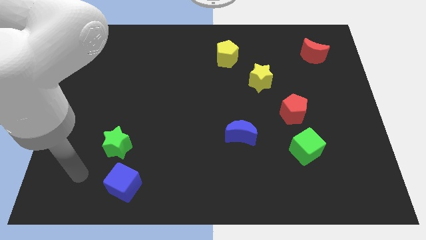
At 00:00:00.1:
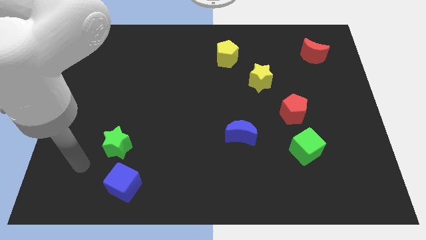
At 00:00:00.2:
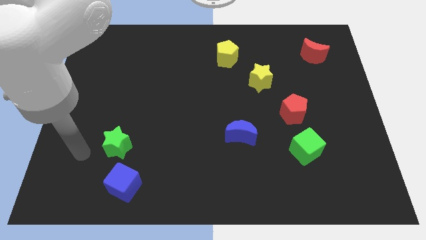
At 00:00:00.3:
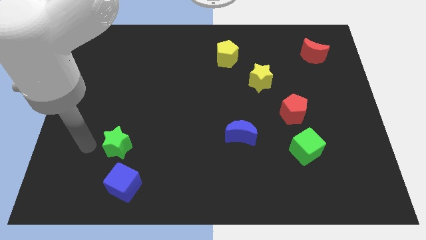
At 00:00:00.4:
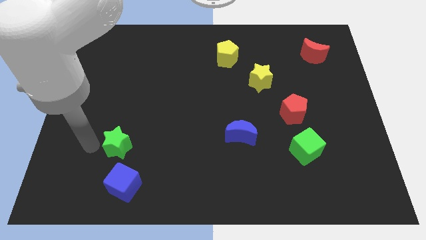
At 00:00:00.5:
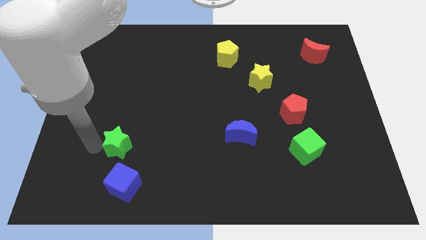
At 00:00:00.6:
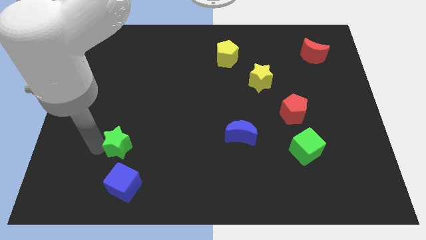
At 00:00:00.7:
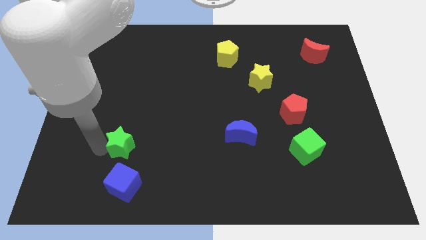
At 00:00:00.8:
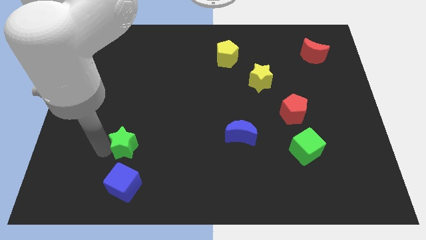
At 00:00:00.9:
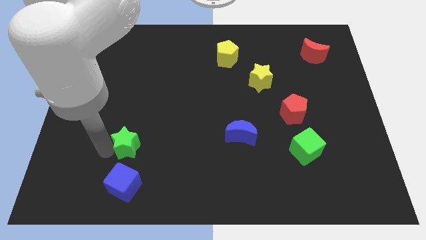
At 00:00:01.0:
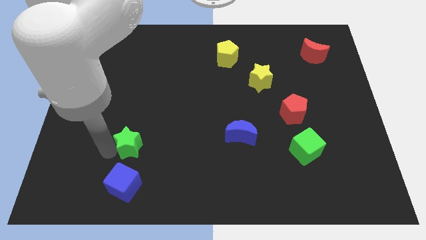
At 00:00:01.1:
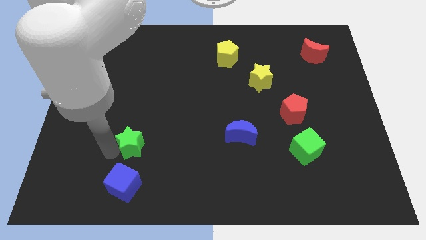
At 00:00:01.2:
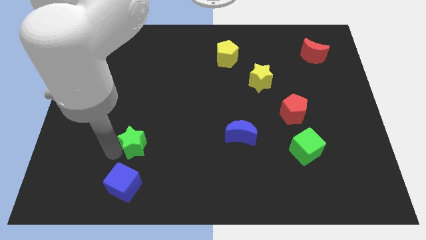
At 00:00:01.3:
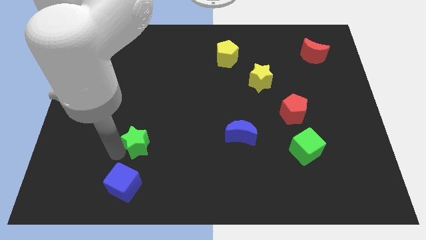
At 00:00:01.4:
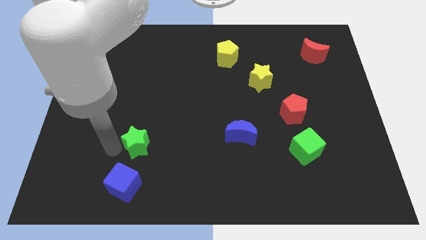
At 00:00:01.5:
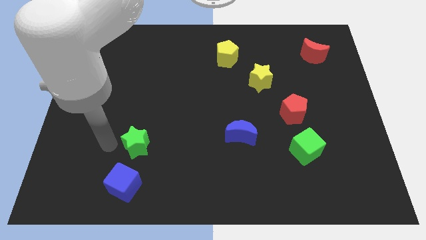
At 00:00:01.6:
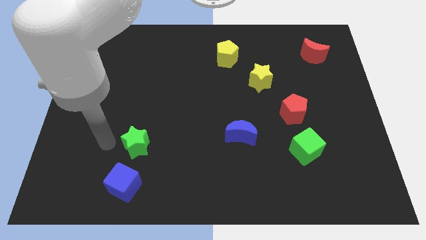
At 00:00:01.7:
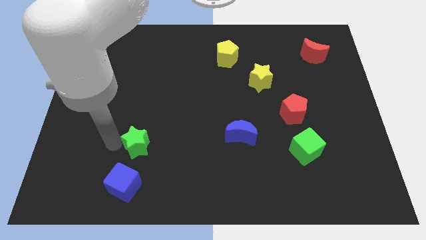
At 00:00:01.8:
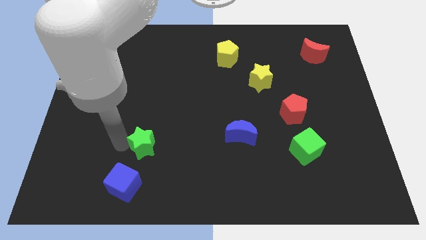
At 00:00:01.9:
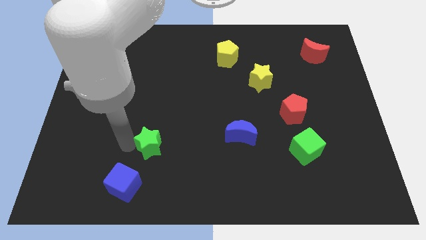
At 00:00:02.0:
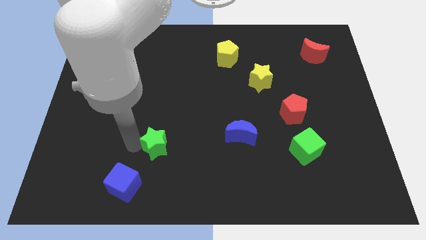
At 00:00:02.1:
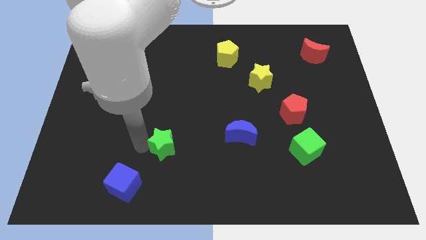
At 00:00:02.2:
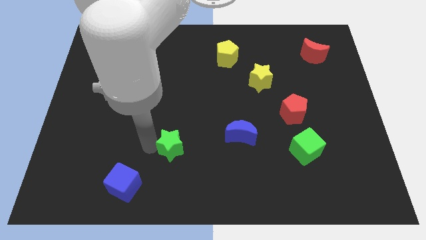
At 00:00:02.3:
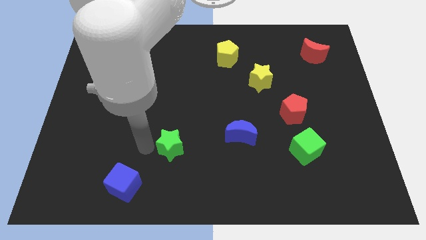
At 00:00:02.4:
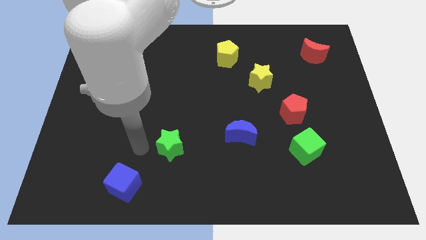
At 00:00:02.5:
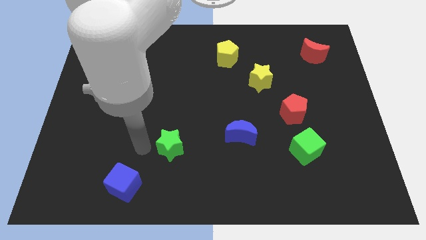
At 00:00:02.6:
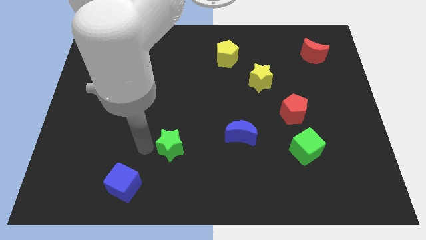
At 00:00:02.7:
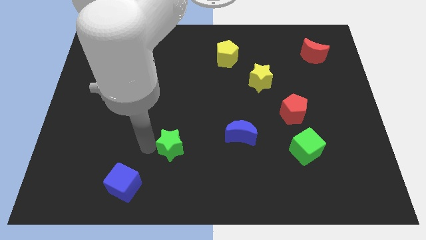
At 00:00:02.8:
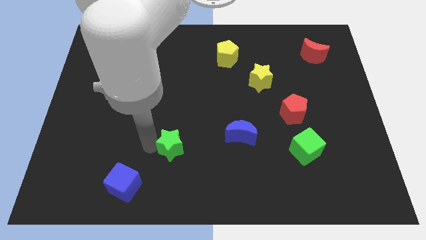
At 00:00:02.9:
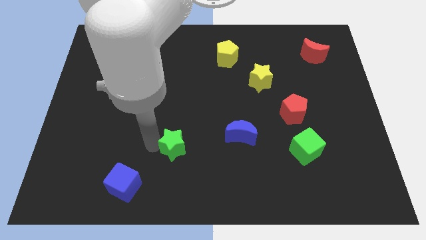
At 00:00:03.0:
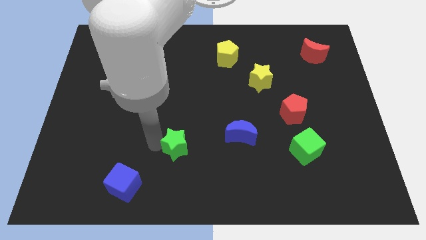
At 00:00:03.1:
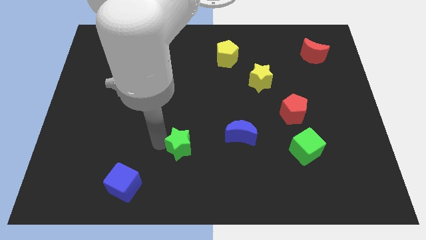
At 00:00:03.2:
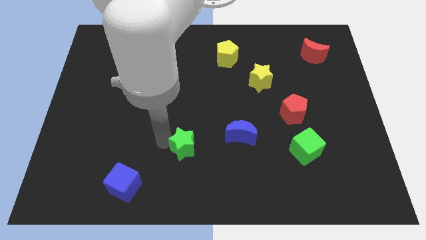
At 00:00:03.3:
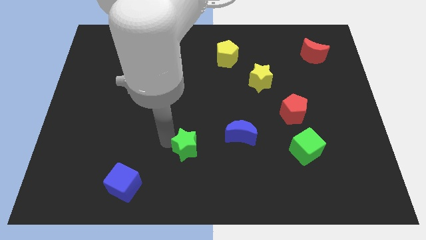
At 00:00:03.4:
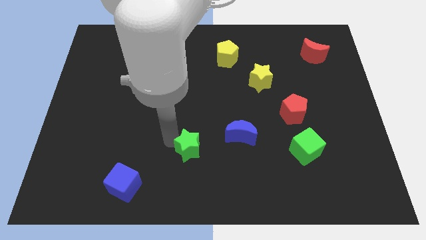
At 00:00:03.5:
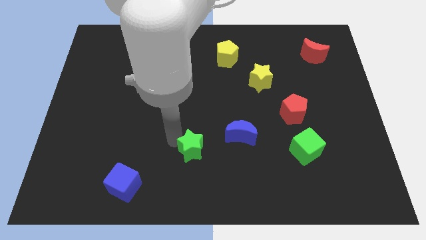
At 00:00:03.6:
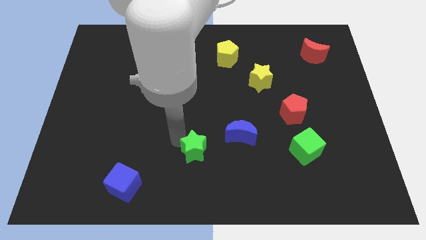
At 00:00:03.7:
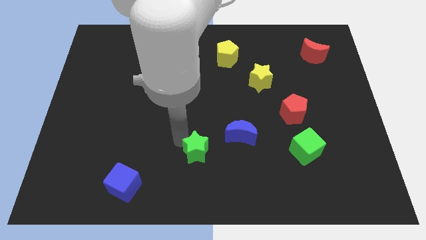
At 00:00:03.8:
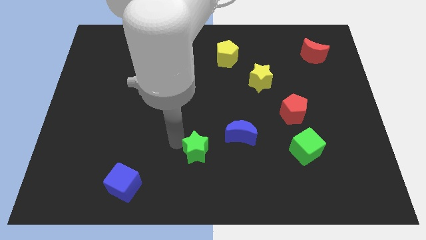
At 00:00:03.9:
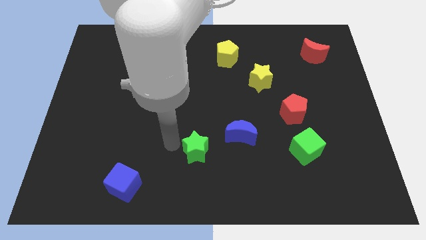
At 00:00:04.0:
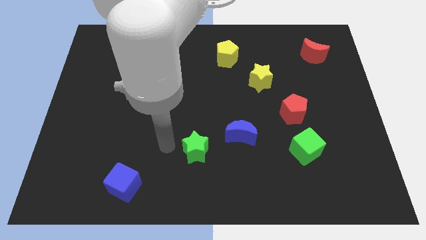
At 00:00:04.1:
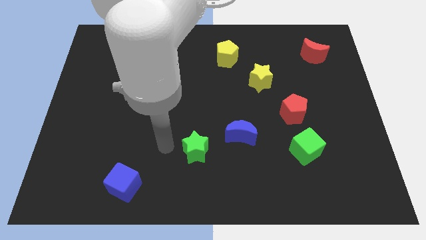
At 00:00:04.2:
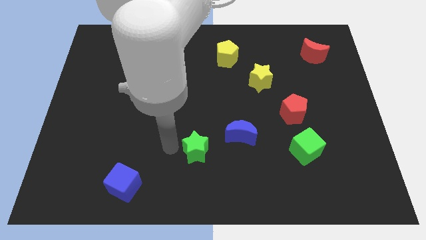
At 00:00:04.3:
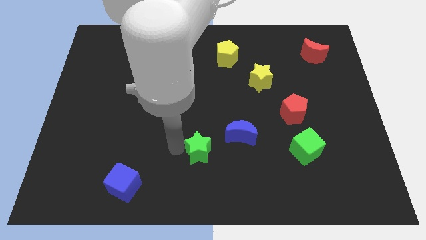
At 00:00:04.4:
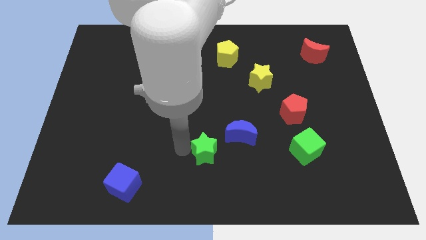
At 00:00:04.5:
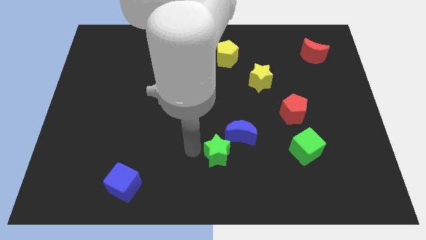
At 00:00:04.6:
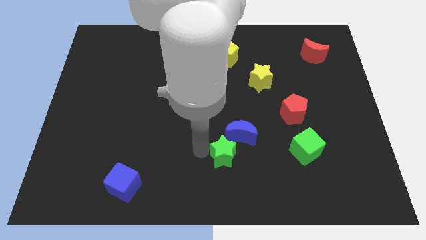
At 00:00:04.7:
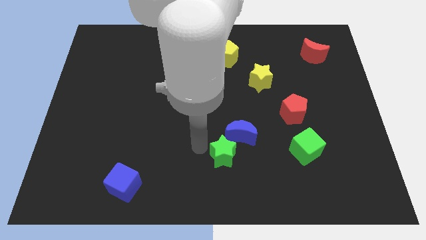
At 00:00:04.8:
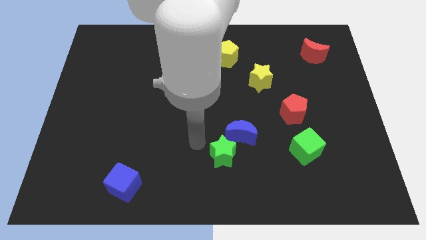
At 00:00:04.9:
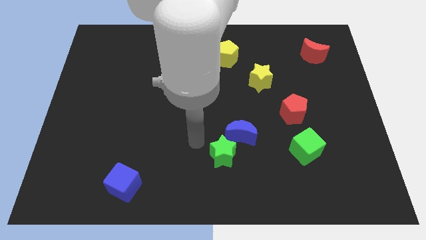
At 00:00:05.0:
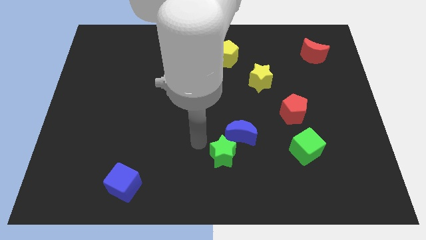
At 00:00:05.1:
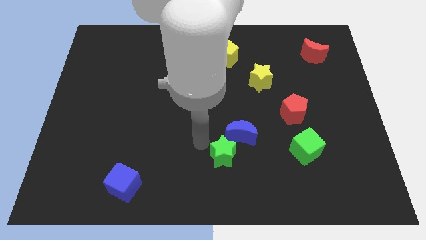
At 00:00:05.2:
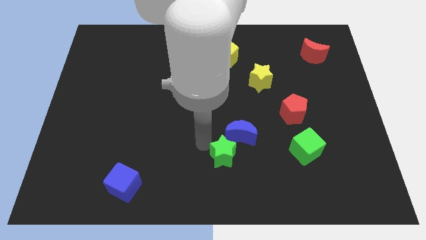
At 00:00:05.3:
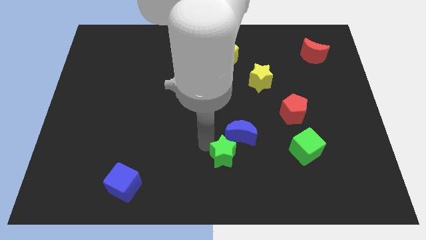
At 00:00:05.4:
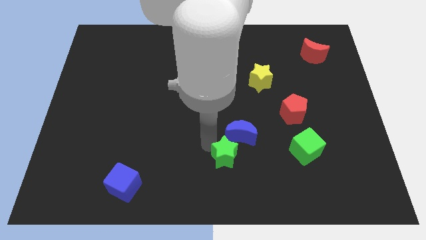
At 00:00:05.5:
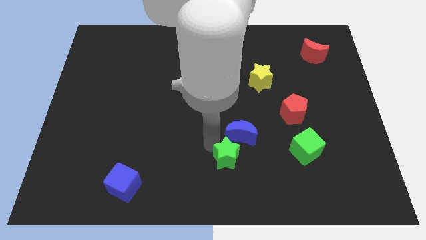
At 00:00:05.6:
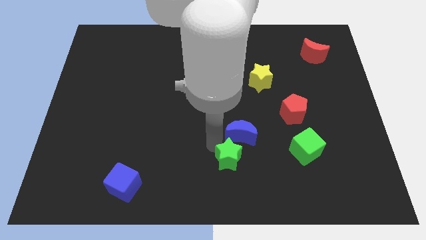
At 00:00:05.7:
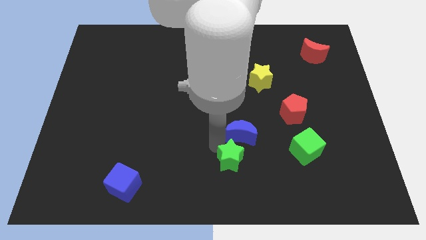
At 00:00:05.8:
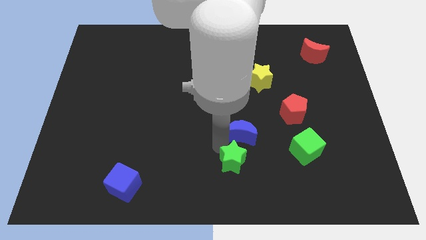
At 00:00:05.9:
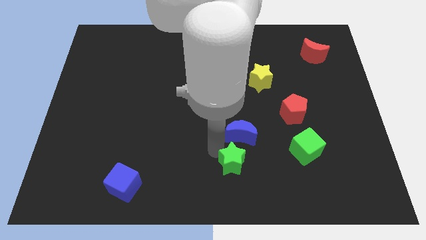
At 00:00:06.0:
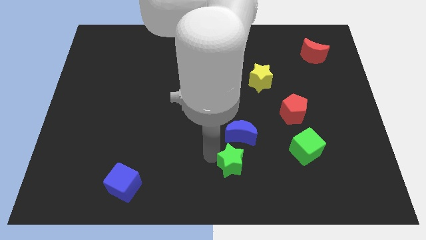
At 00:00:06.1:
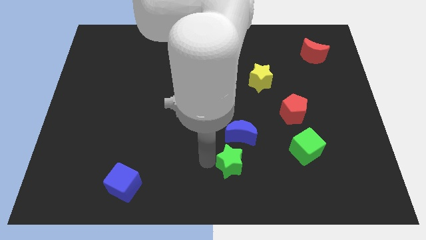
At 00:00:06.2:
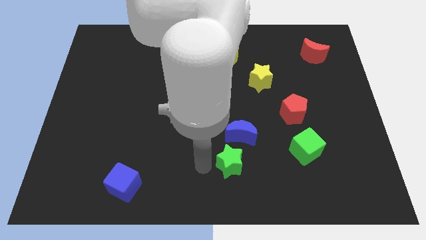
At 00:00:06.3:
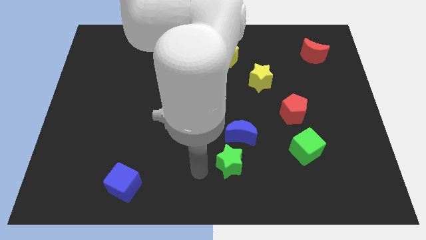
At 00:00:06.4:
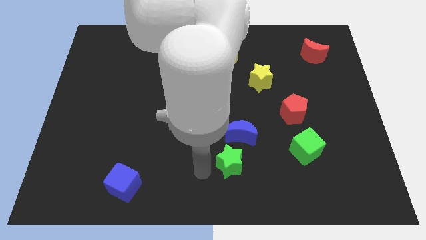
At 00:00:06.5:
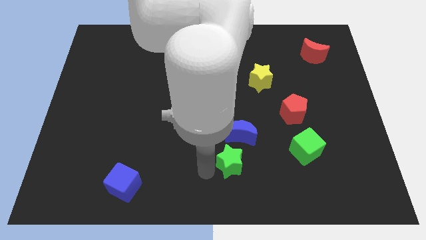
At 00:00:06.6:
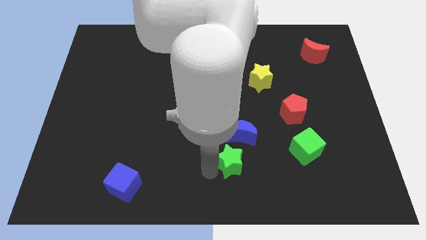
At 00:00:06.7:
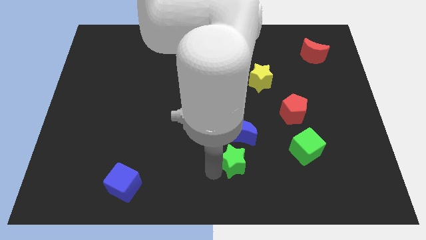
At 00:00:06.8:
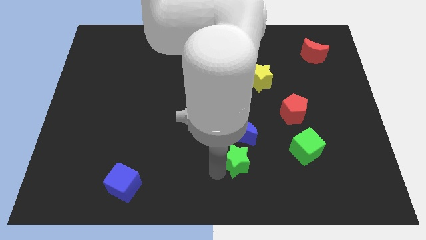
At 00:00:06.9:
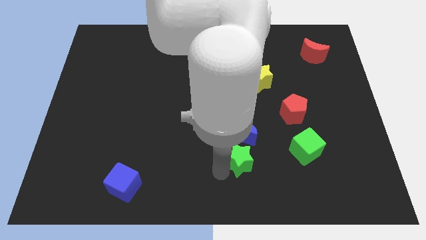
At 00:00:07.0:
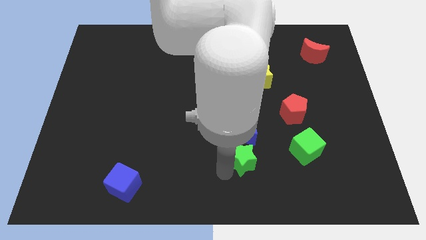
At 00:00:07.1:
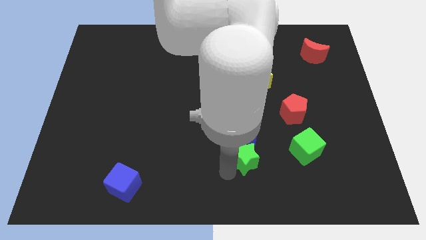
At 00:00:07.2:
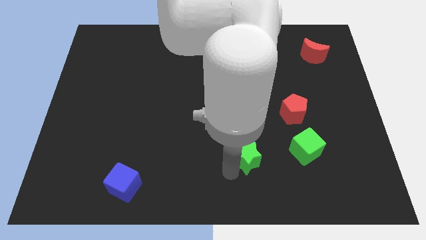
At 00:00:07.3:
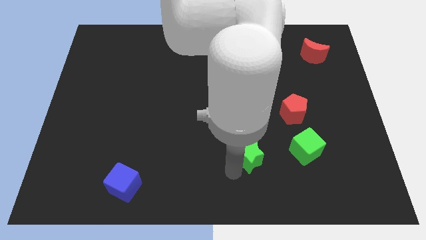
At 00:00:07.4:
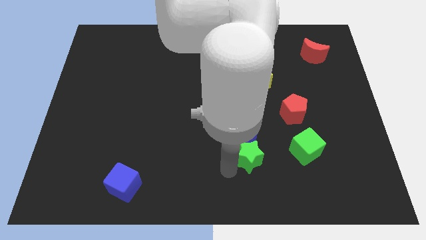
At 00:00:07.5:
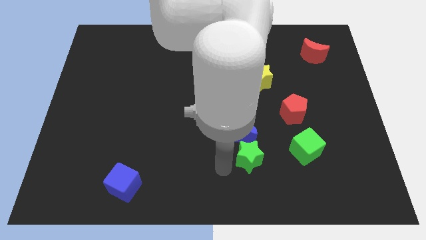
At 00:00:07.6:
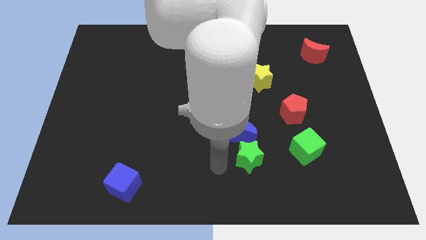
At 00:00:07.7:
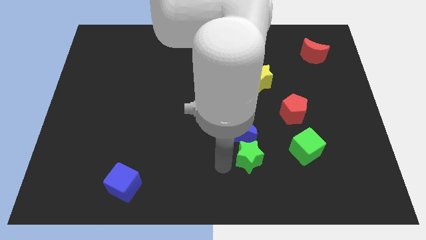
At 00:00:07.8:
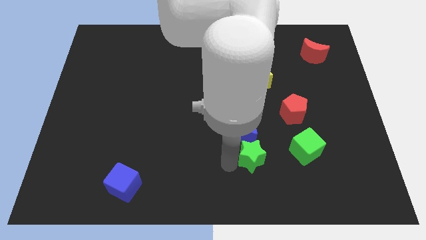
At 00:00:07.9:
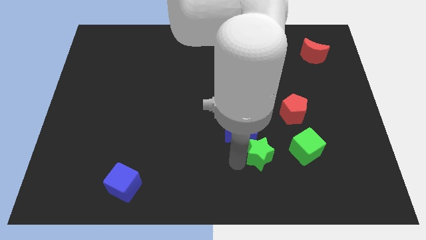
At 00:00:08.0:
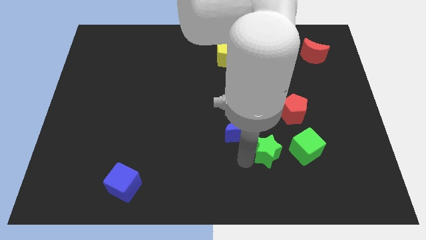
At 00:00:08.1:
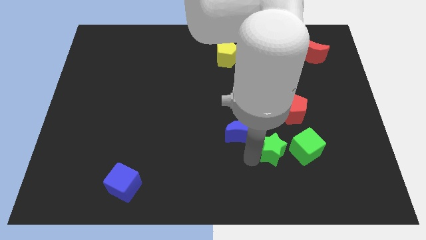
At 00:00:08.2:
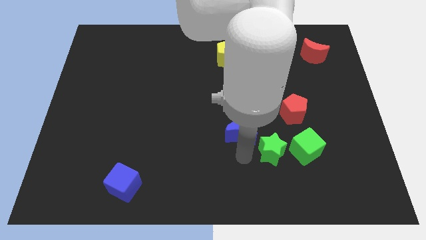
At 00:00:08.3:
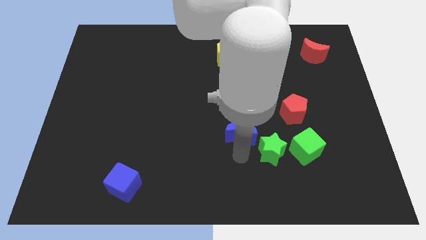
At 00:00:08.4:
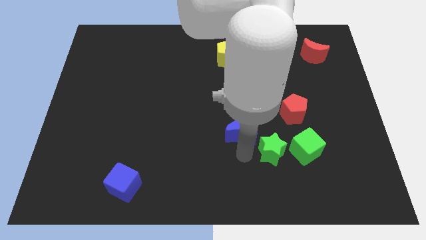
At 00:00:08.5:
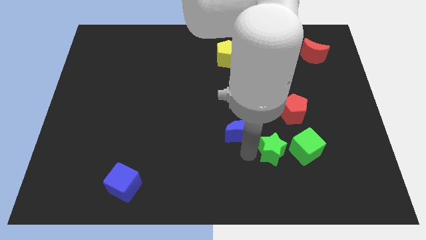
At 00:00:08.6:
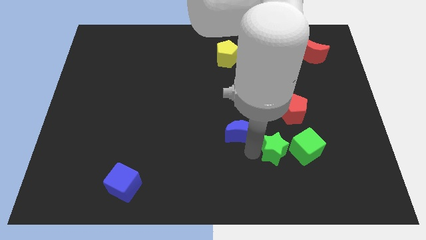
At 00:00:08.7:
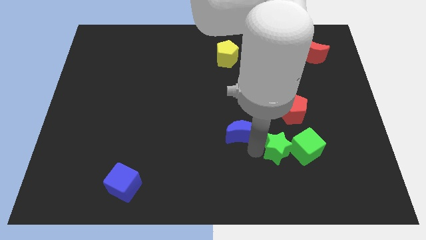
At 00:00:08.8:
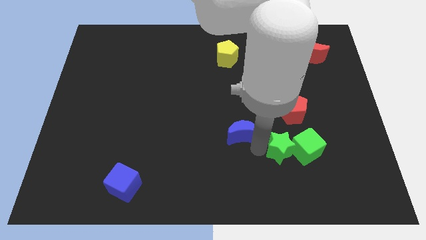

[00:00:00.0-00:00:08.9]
slide the green star towards the green cube
